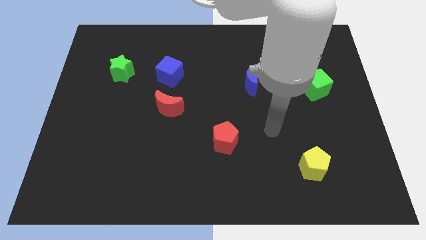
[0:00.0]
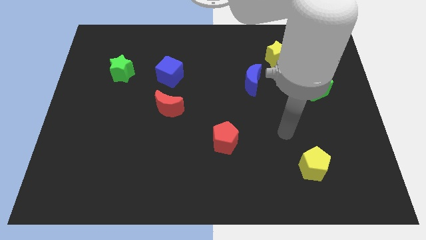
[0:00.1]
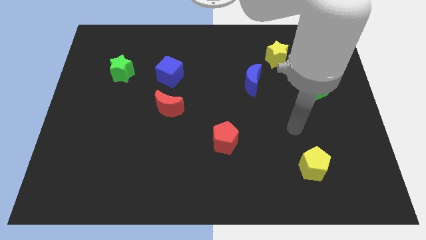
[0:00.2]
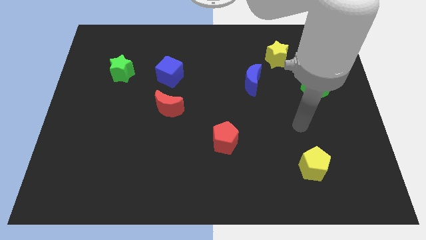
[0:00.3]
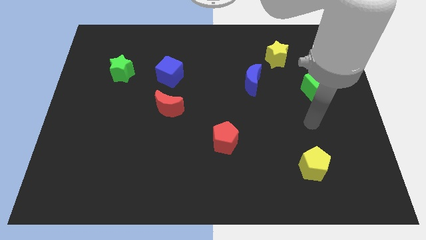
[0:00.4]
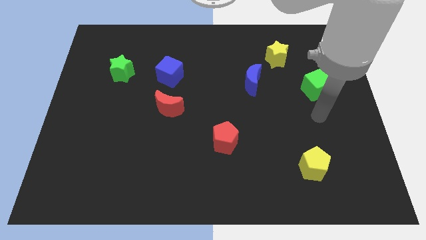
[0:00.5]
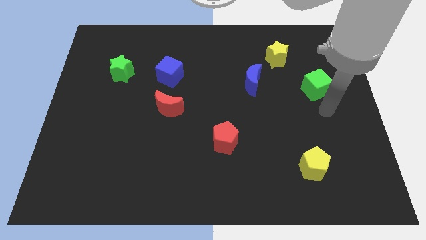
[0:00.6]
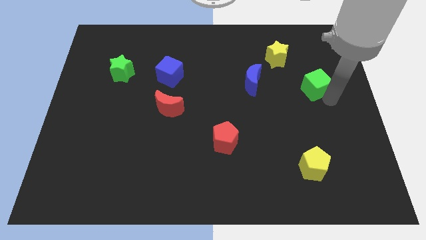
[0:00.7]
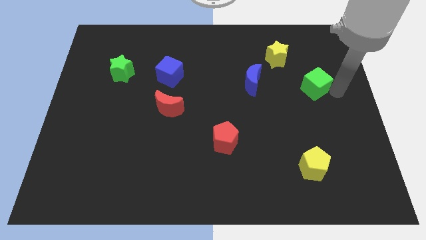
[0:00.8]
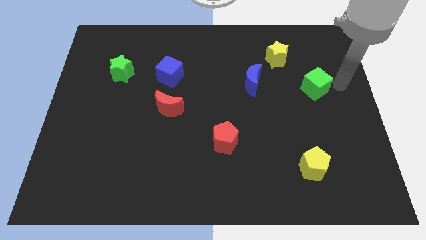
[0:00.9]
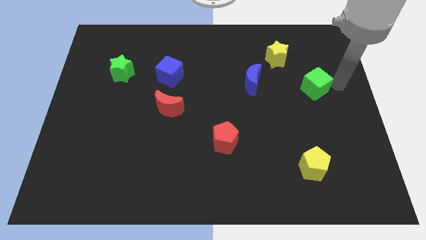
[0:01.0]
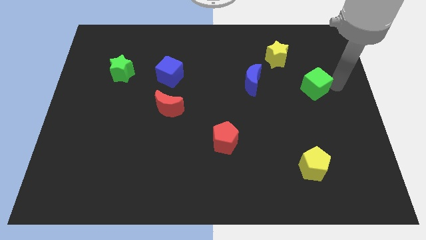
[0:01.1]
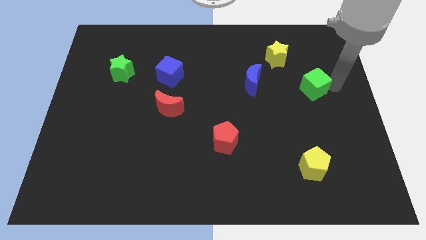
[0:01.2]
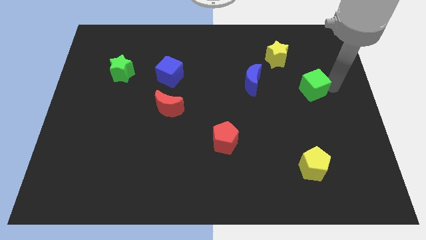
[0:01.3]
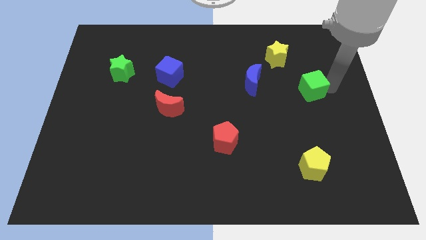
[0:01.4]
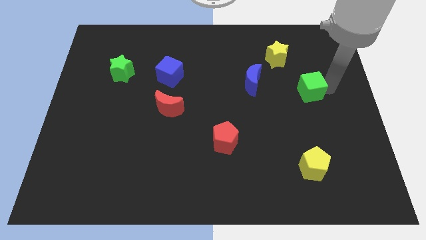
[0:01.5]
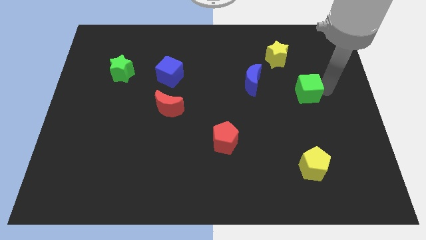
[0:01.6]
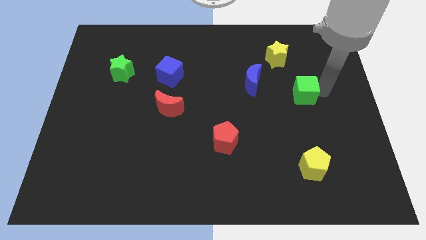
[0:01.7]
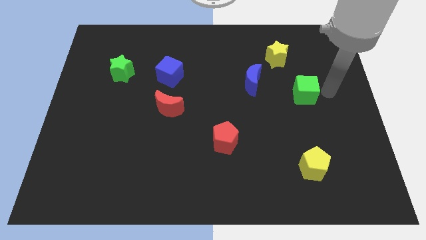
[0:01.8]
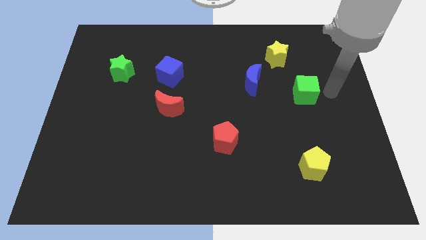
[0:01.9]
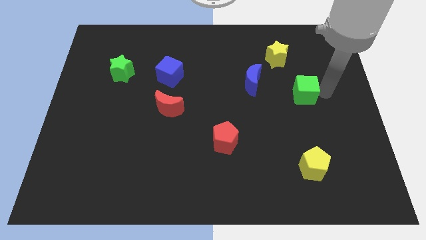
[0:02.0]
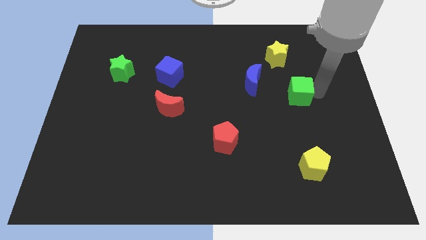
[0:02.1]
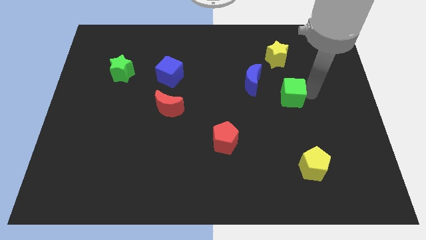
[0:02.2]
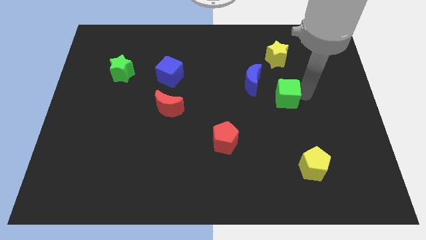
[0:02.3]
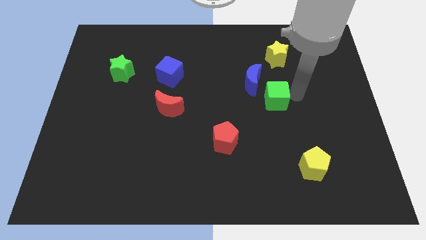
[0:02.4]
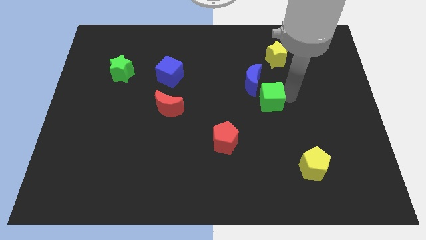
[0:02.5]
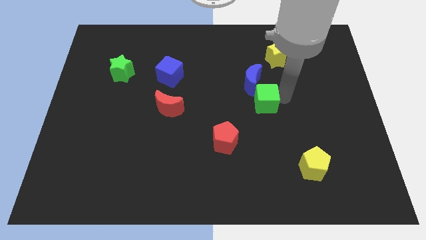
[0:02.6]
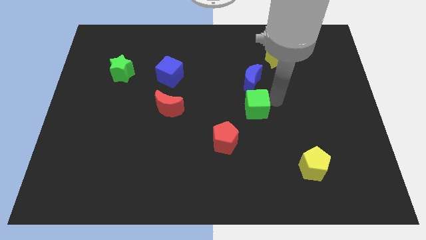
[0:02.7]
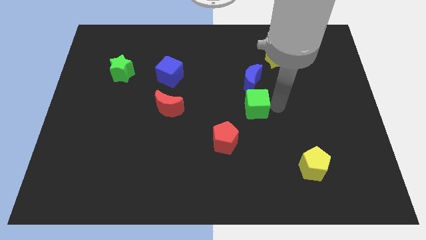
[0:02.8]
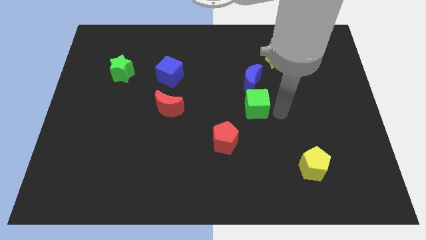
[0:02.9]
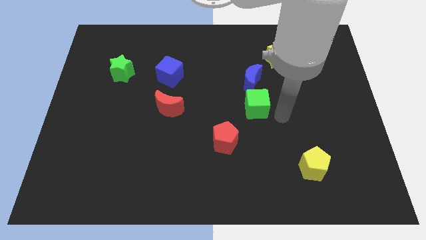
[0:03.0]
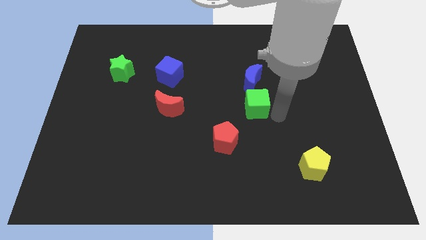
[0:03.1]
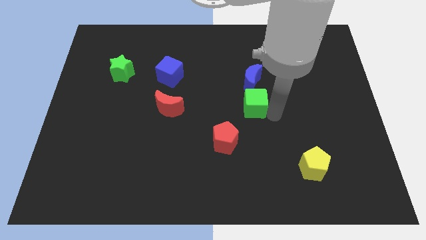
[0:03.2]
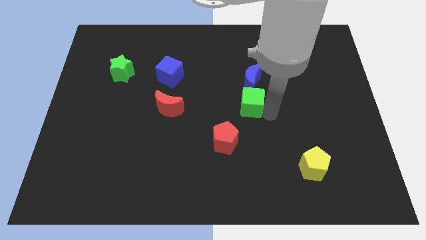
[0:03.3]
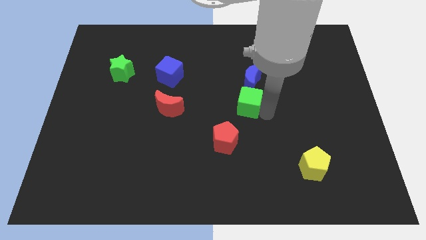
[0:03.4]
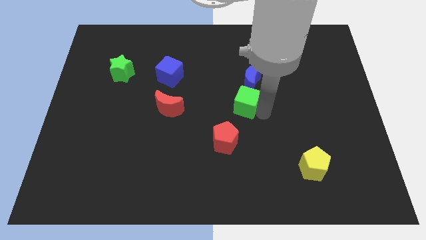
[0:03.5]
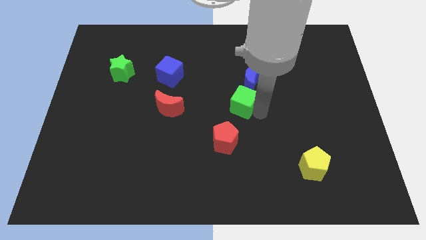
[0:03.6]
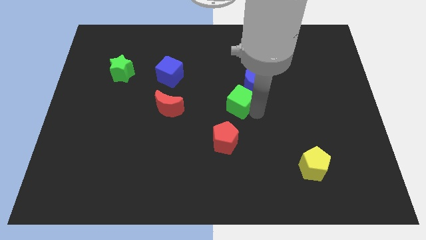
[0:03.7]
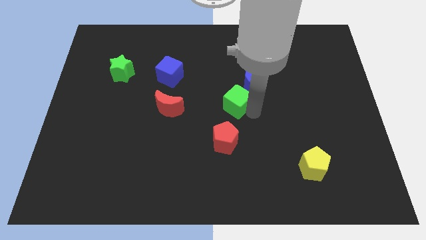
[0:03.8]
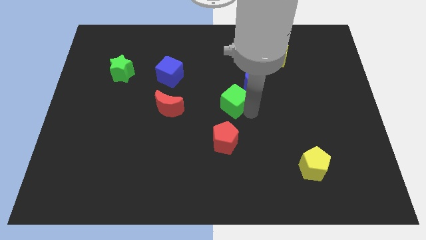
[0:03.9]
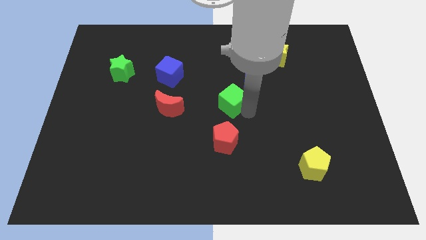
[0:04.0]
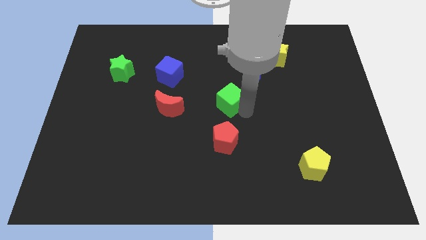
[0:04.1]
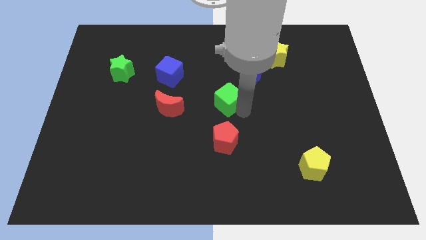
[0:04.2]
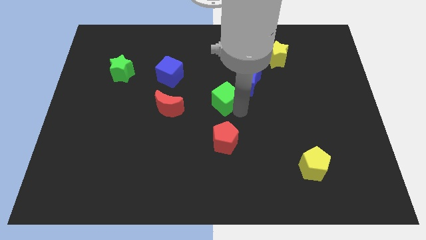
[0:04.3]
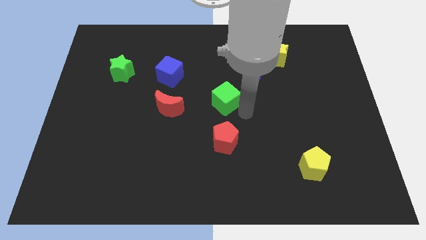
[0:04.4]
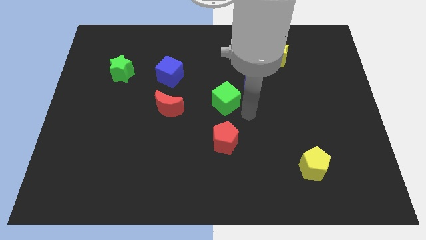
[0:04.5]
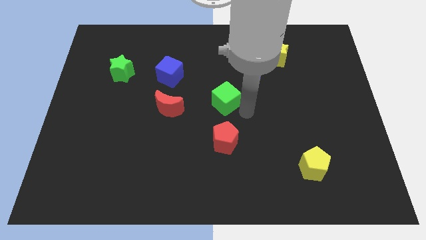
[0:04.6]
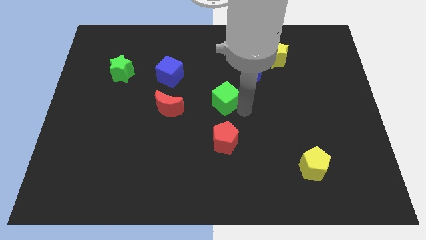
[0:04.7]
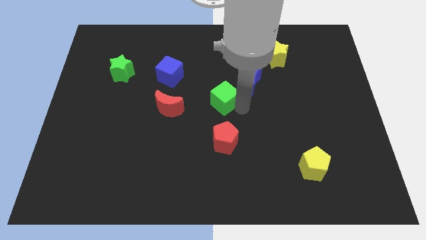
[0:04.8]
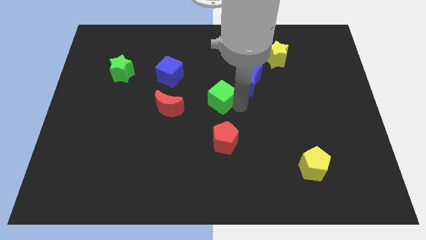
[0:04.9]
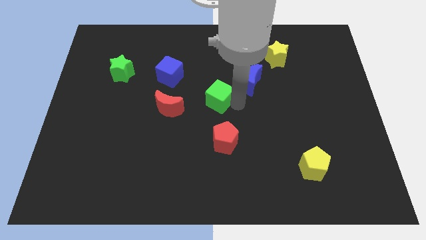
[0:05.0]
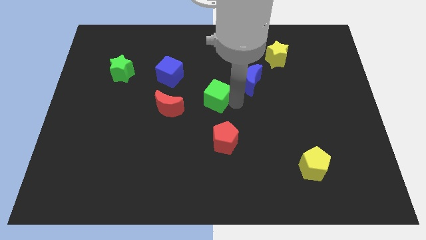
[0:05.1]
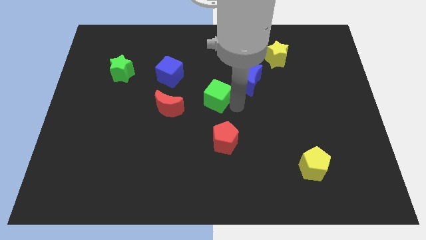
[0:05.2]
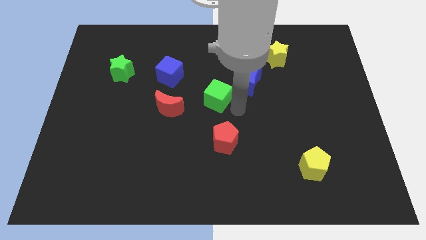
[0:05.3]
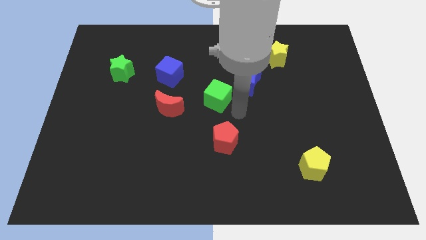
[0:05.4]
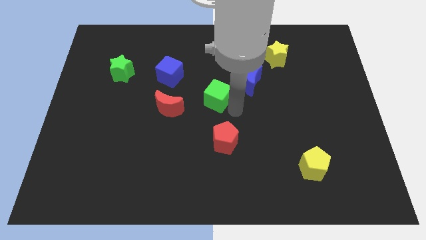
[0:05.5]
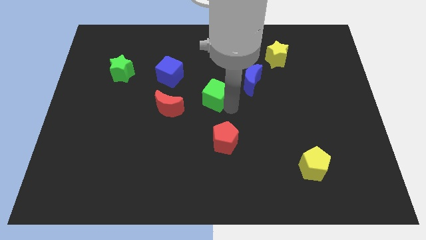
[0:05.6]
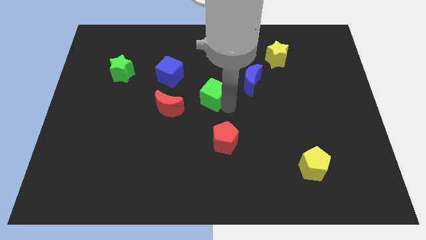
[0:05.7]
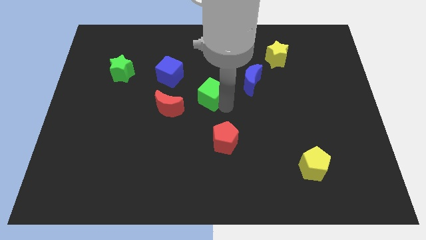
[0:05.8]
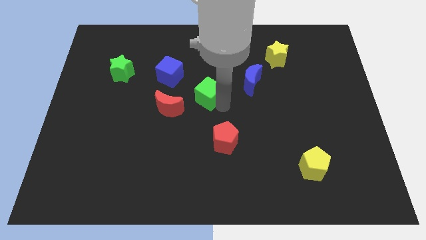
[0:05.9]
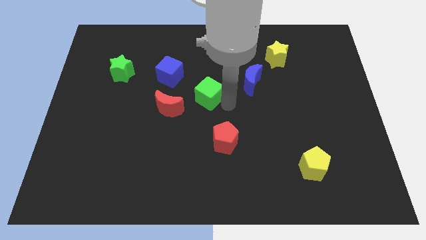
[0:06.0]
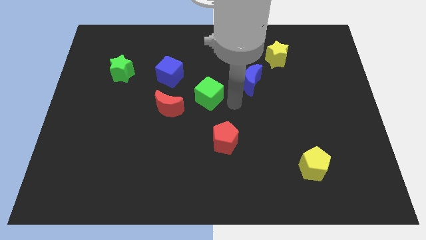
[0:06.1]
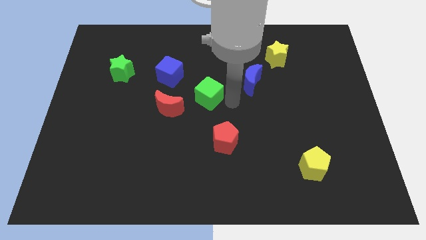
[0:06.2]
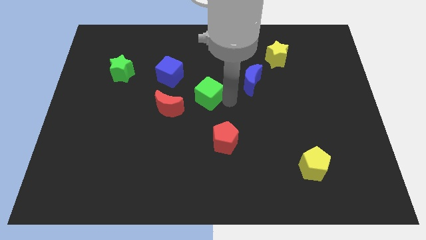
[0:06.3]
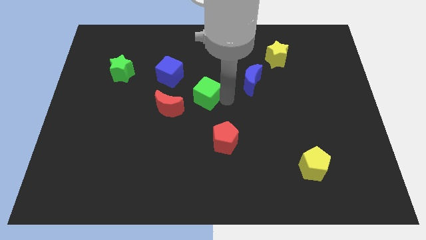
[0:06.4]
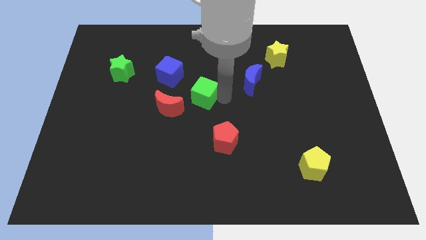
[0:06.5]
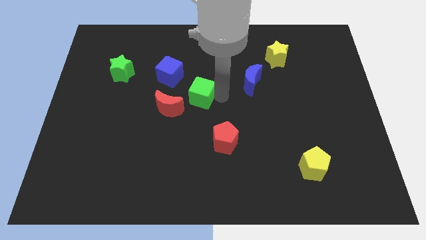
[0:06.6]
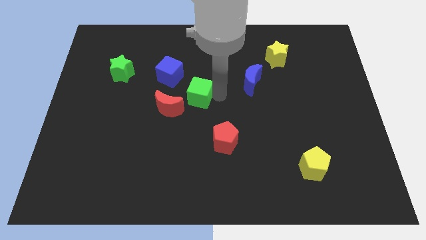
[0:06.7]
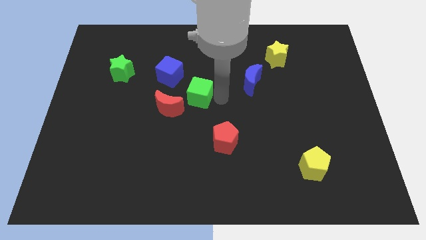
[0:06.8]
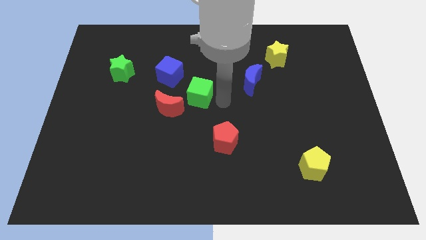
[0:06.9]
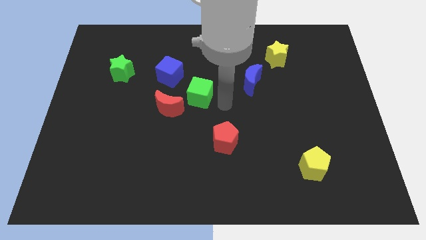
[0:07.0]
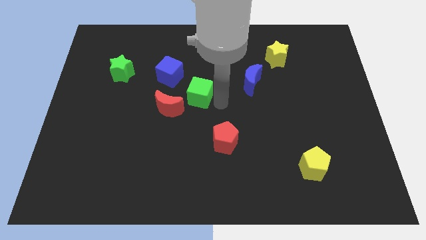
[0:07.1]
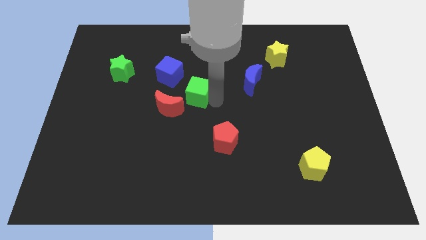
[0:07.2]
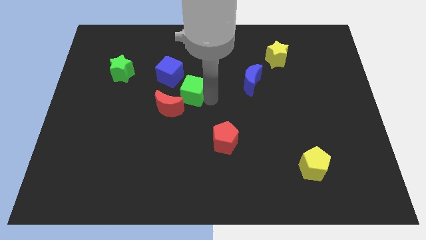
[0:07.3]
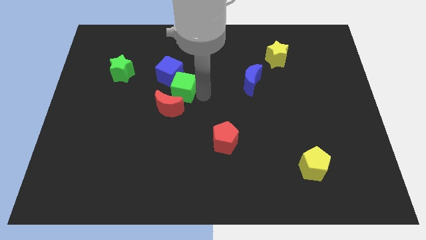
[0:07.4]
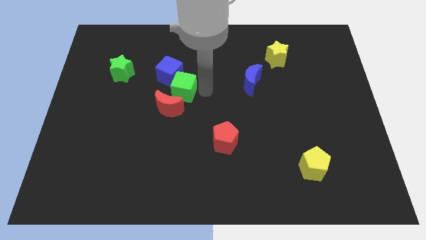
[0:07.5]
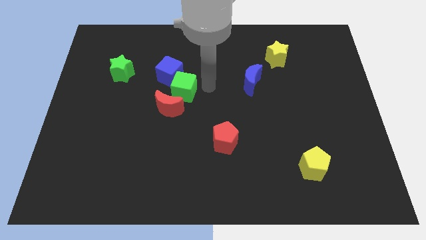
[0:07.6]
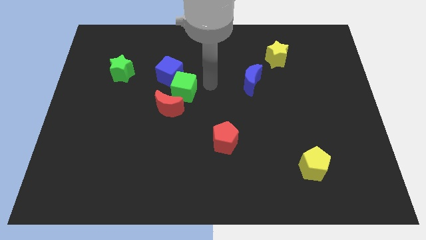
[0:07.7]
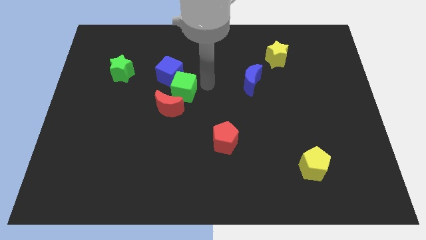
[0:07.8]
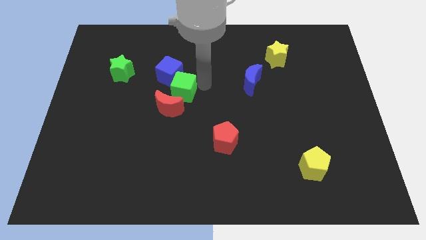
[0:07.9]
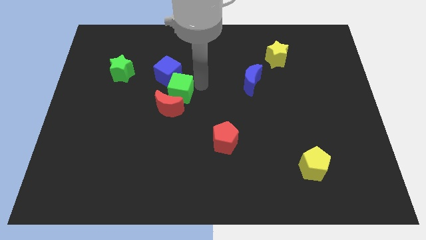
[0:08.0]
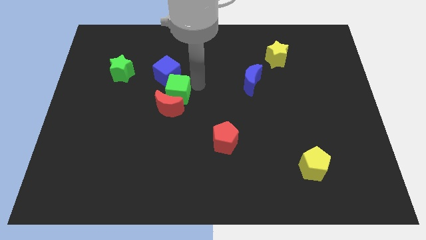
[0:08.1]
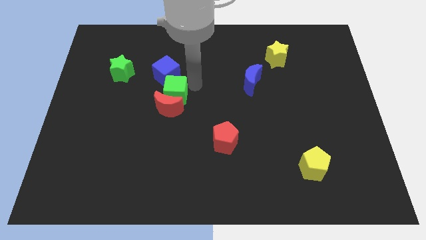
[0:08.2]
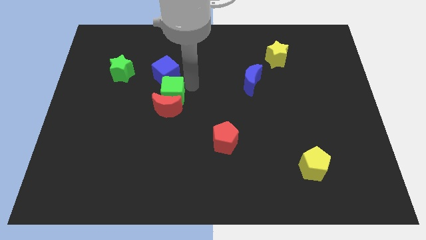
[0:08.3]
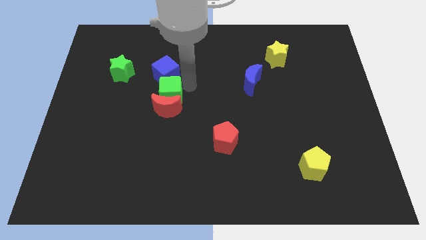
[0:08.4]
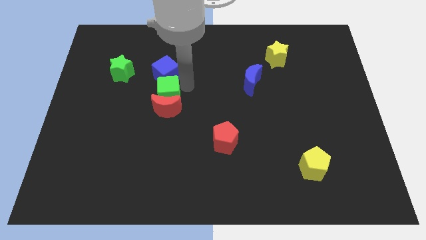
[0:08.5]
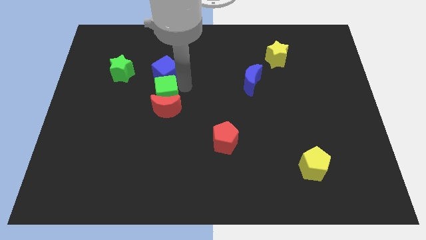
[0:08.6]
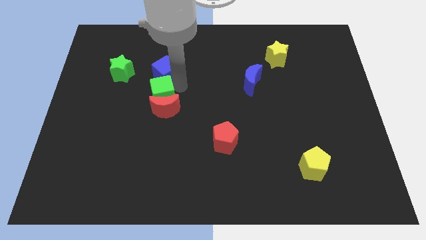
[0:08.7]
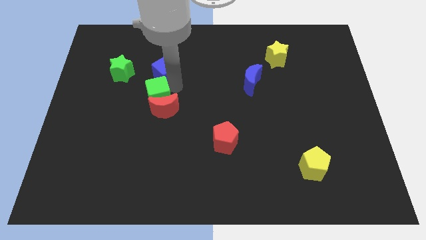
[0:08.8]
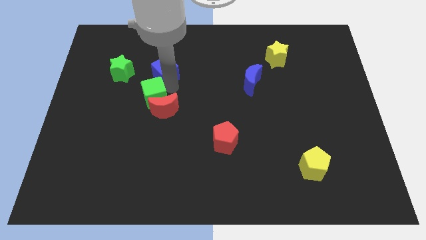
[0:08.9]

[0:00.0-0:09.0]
push the green cube to the left of the red moon
